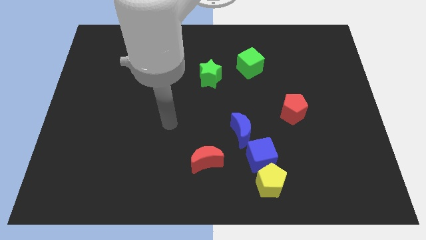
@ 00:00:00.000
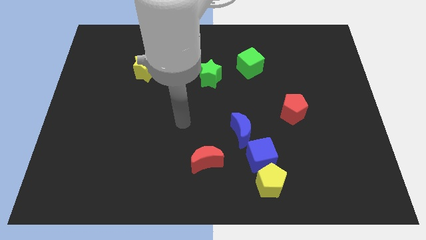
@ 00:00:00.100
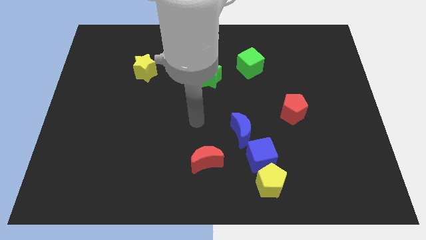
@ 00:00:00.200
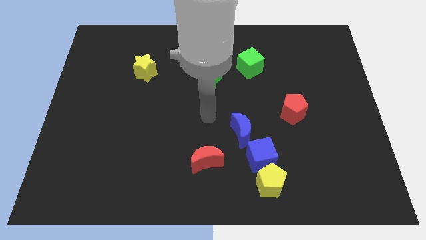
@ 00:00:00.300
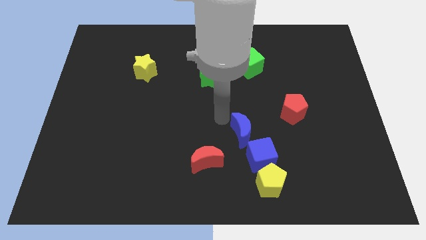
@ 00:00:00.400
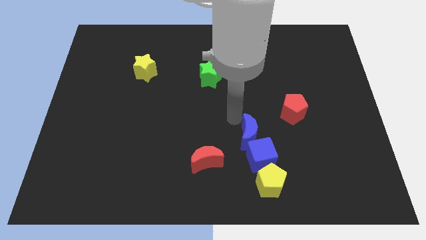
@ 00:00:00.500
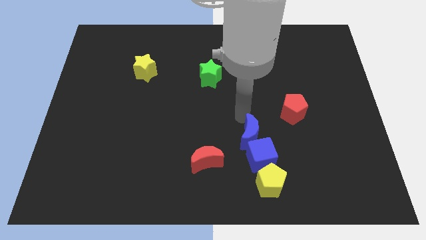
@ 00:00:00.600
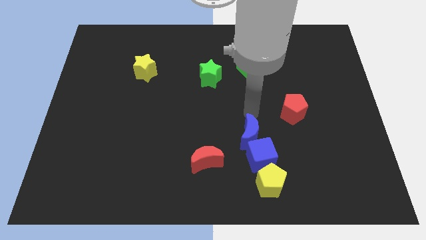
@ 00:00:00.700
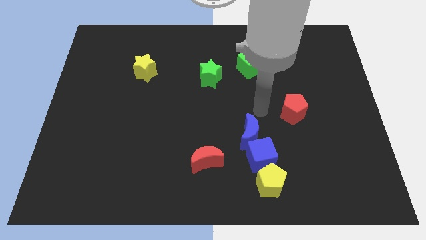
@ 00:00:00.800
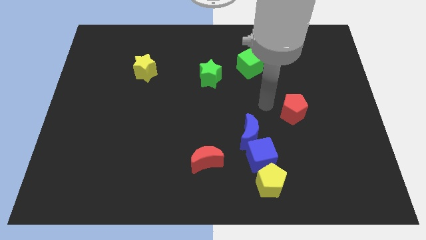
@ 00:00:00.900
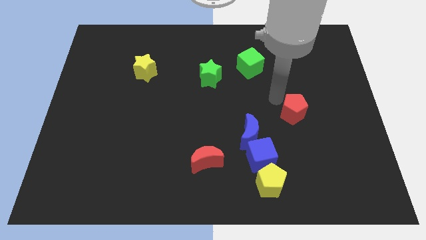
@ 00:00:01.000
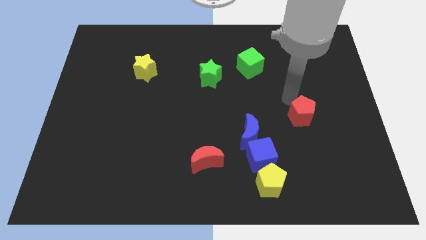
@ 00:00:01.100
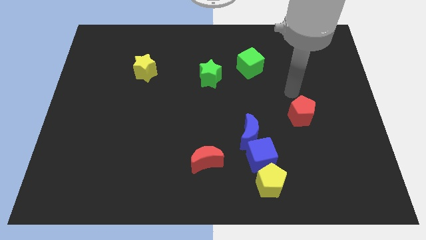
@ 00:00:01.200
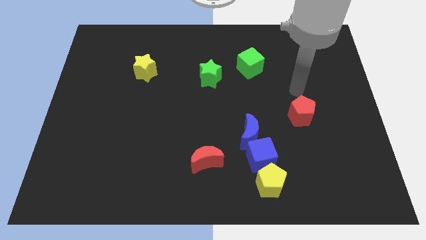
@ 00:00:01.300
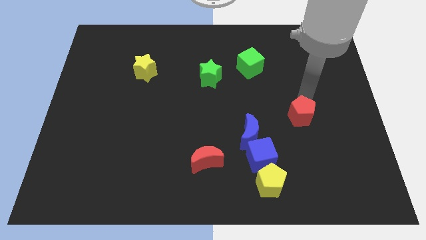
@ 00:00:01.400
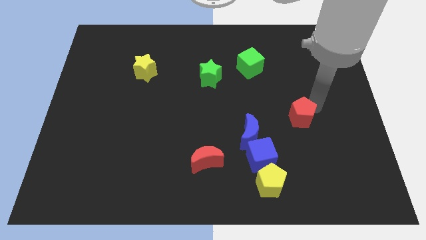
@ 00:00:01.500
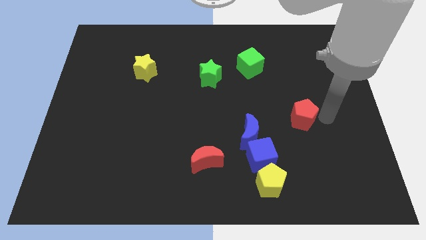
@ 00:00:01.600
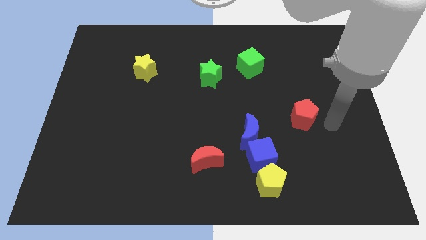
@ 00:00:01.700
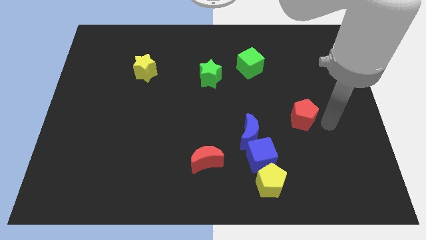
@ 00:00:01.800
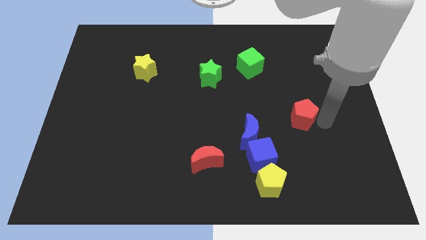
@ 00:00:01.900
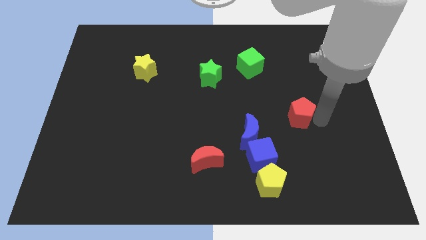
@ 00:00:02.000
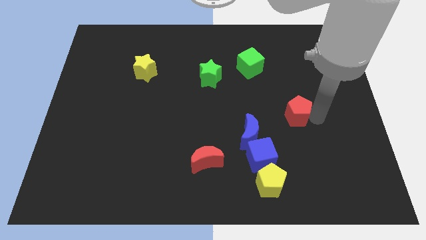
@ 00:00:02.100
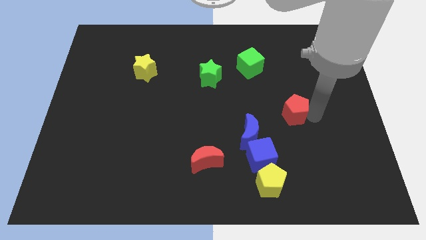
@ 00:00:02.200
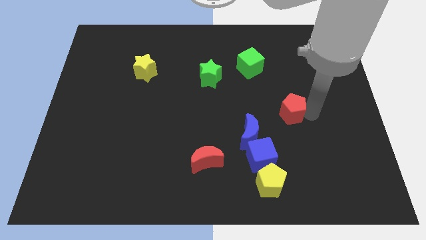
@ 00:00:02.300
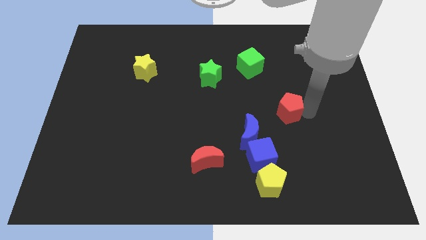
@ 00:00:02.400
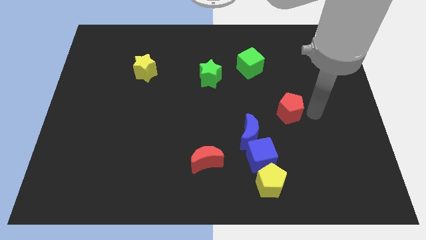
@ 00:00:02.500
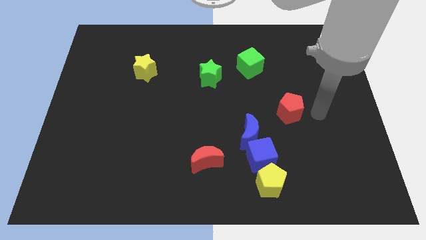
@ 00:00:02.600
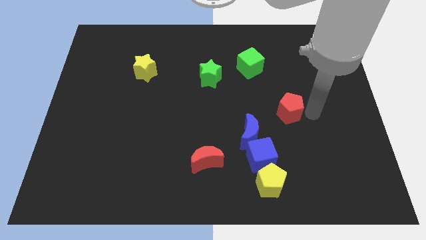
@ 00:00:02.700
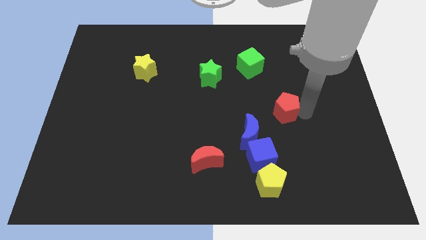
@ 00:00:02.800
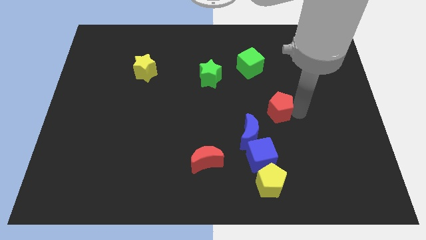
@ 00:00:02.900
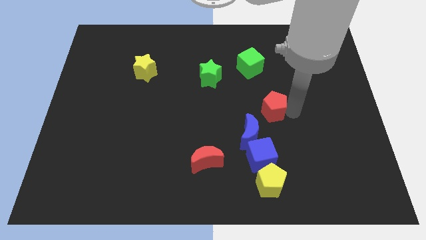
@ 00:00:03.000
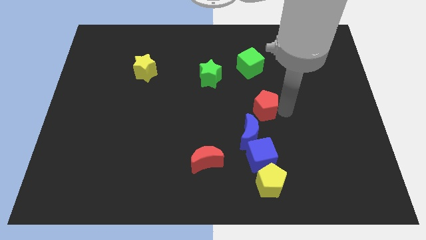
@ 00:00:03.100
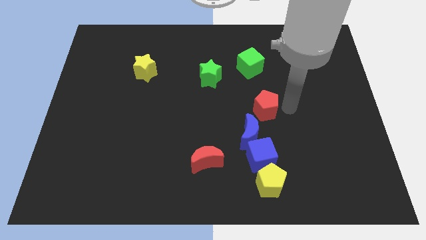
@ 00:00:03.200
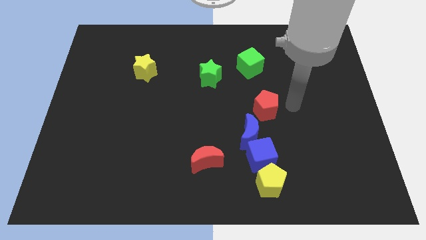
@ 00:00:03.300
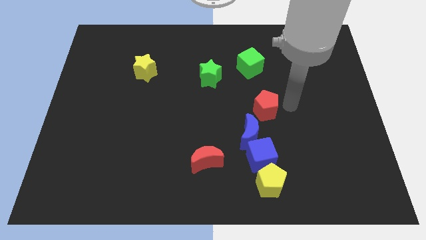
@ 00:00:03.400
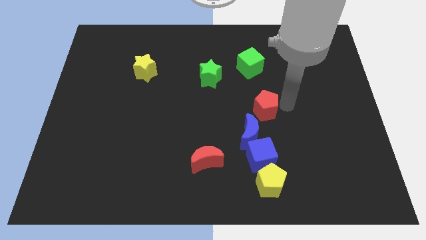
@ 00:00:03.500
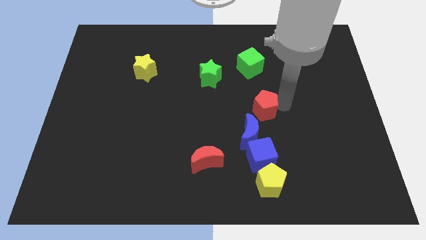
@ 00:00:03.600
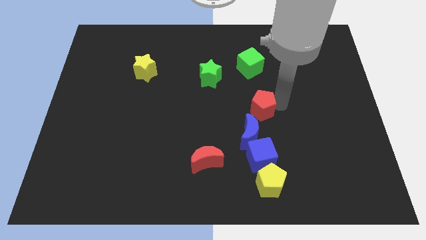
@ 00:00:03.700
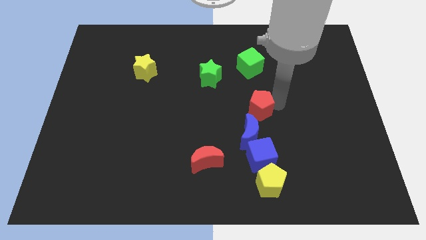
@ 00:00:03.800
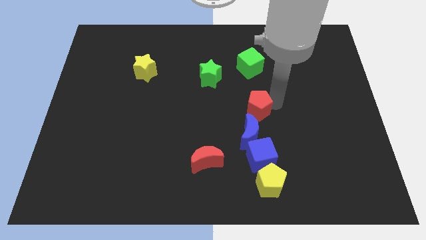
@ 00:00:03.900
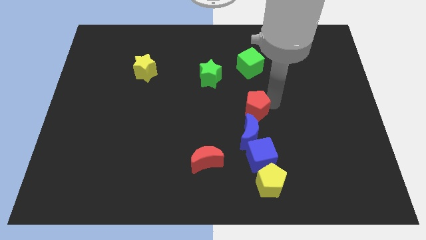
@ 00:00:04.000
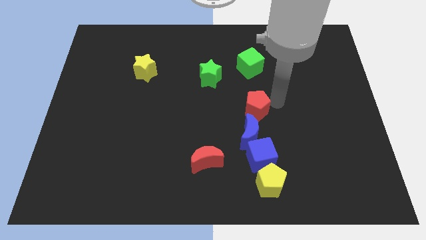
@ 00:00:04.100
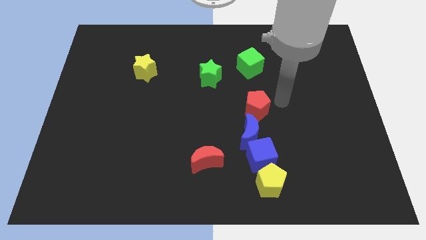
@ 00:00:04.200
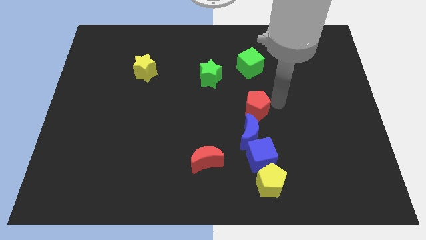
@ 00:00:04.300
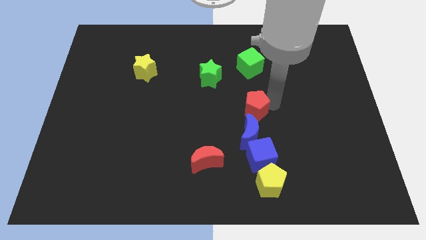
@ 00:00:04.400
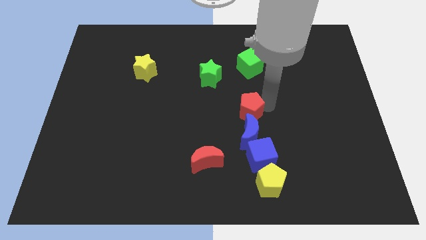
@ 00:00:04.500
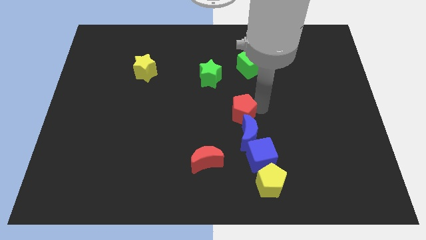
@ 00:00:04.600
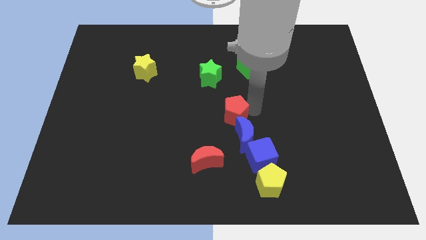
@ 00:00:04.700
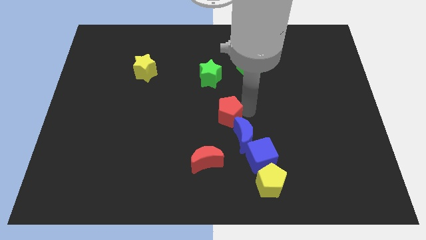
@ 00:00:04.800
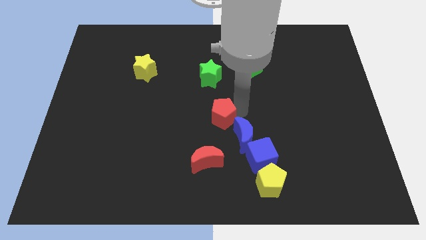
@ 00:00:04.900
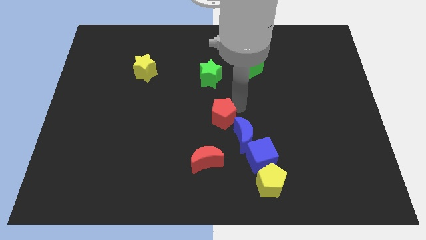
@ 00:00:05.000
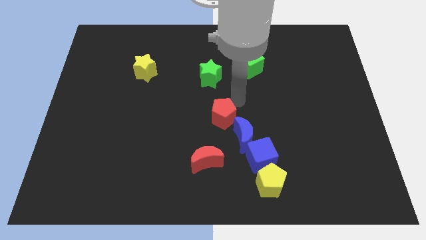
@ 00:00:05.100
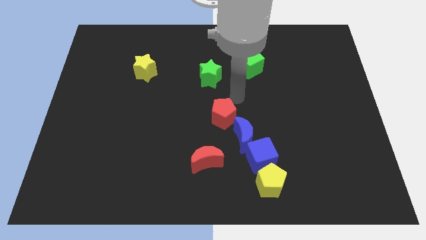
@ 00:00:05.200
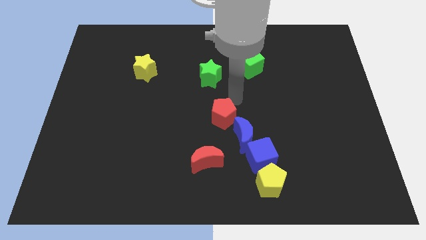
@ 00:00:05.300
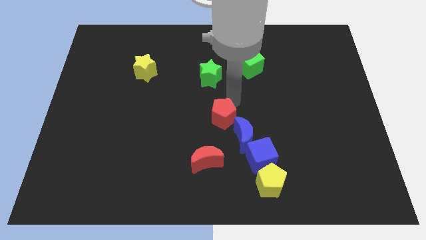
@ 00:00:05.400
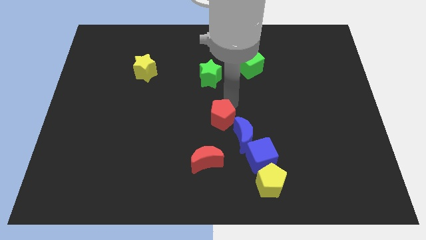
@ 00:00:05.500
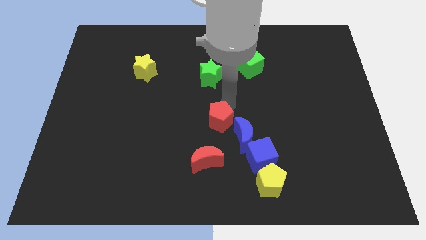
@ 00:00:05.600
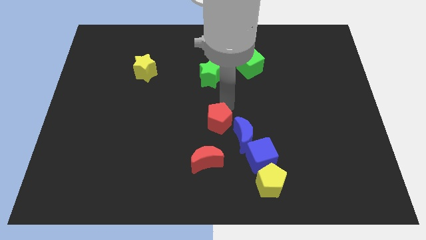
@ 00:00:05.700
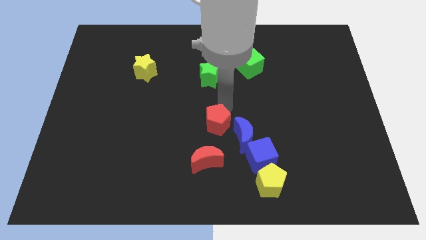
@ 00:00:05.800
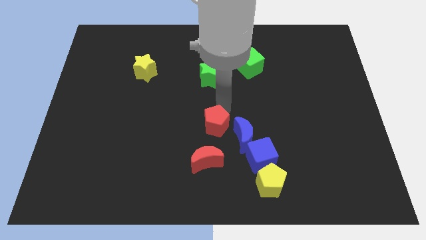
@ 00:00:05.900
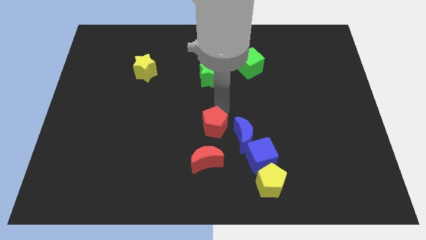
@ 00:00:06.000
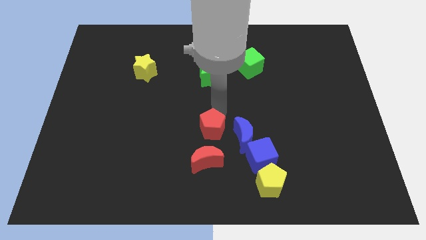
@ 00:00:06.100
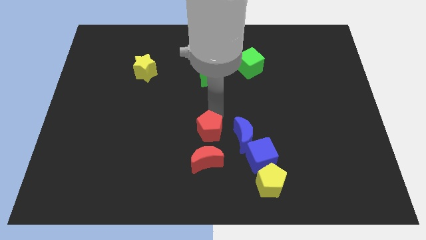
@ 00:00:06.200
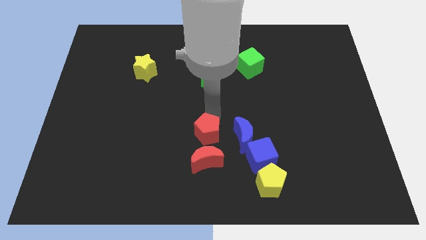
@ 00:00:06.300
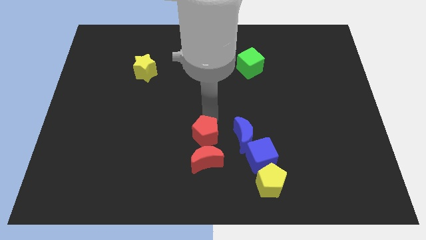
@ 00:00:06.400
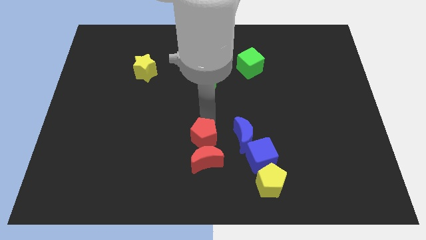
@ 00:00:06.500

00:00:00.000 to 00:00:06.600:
push the red pentagon to the red moon
